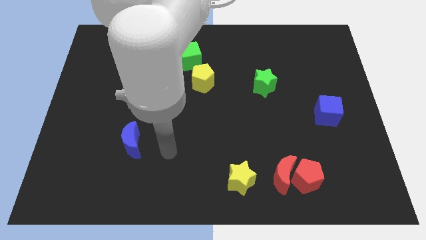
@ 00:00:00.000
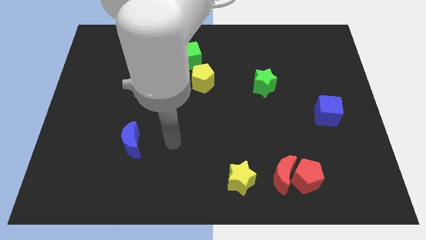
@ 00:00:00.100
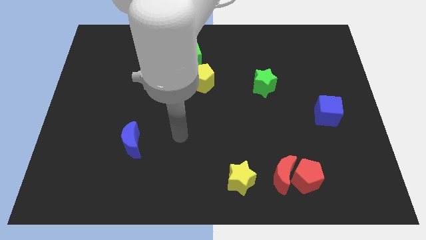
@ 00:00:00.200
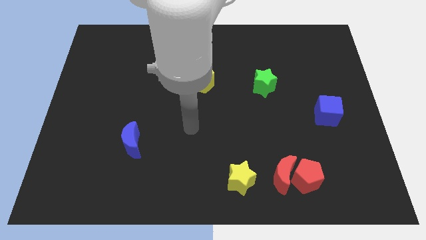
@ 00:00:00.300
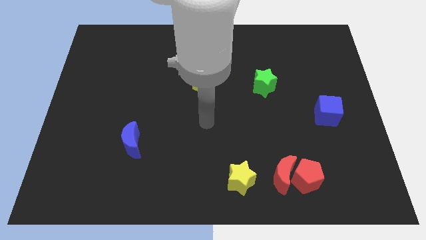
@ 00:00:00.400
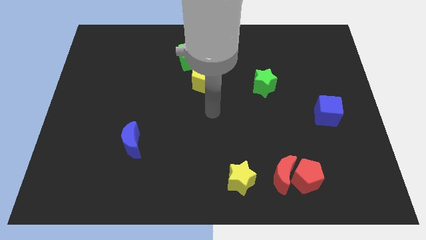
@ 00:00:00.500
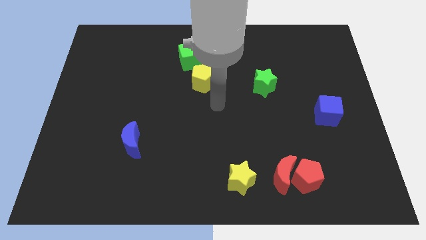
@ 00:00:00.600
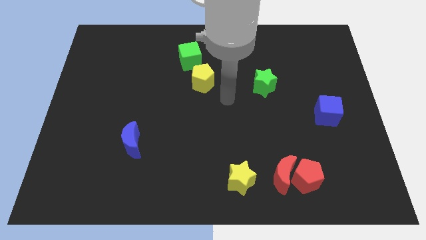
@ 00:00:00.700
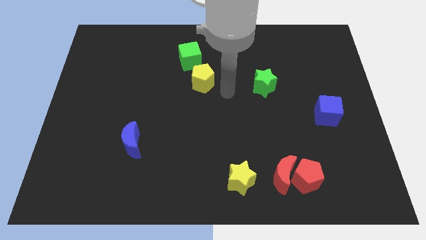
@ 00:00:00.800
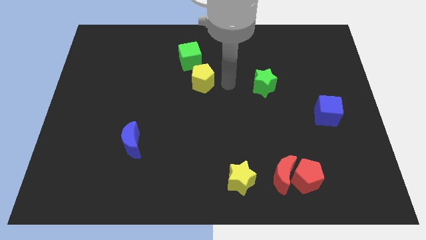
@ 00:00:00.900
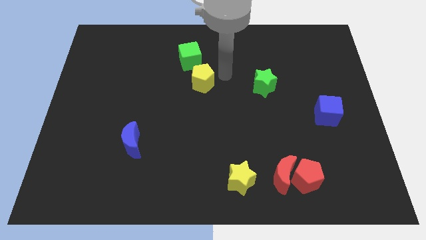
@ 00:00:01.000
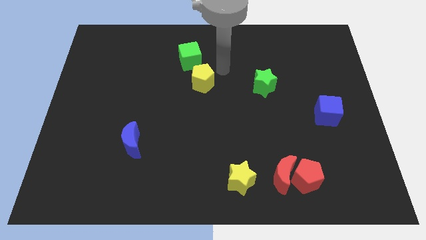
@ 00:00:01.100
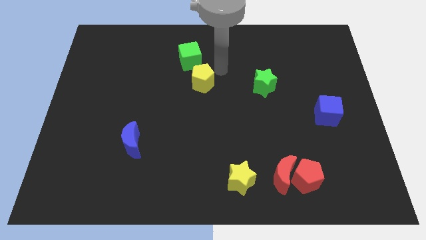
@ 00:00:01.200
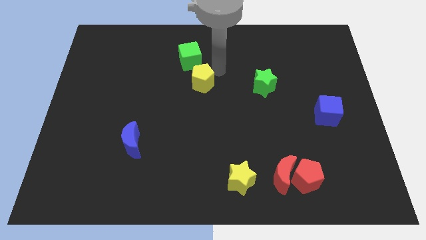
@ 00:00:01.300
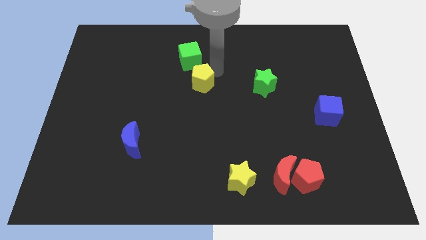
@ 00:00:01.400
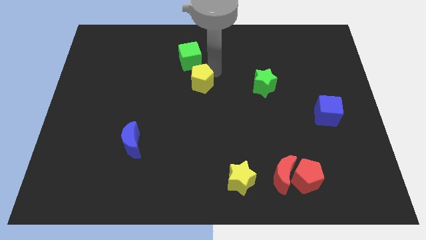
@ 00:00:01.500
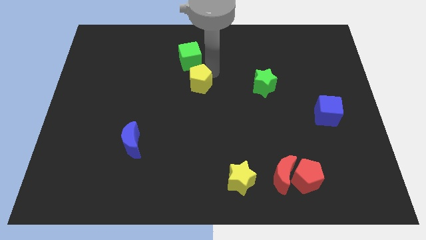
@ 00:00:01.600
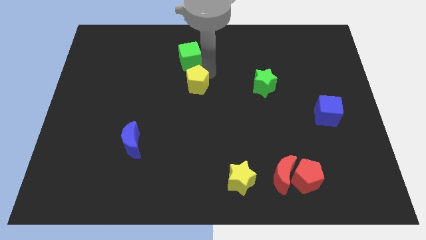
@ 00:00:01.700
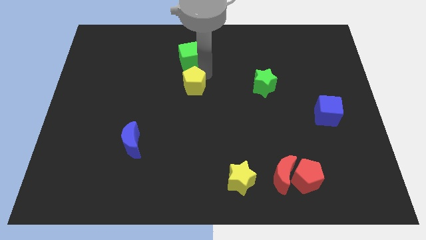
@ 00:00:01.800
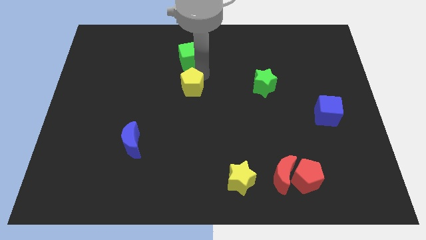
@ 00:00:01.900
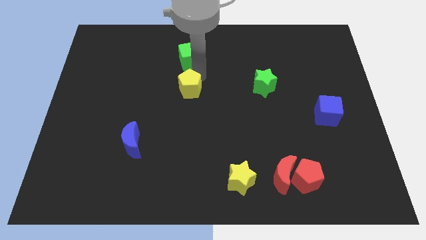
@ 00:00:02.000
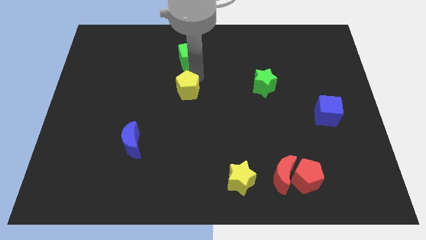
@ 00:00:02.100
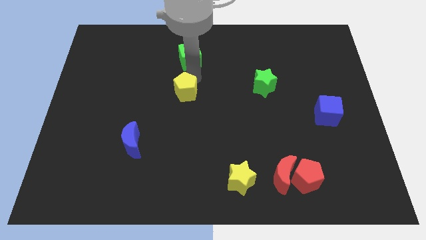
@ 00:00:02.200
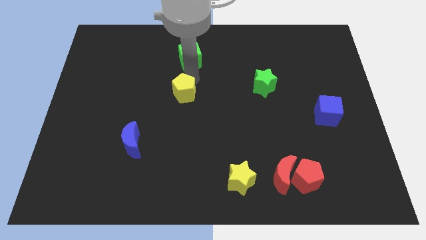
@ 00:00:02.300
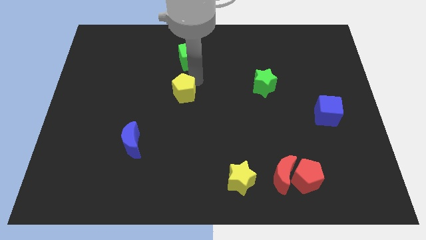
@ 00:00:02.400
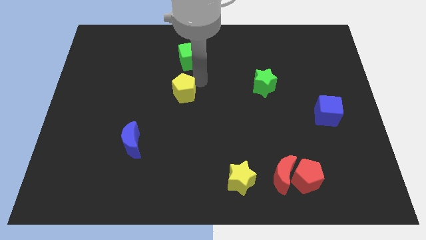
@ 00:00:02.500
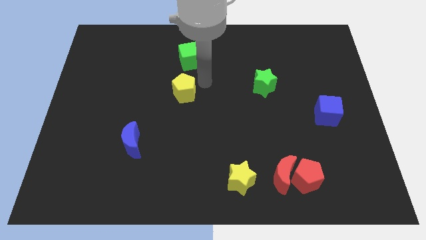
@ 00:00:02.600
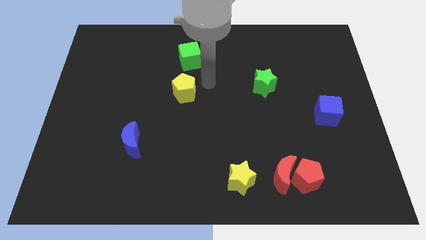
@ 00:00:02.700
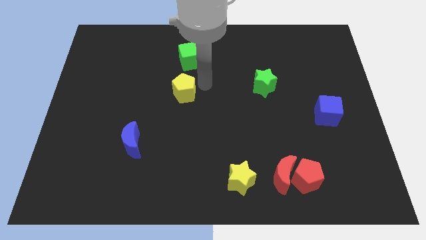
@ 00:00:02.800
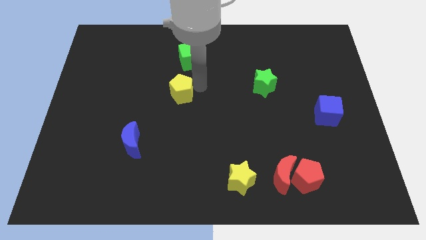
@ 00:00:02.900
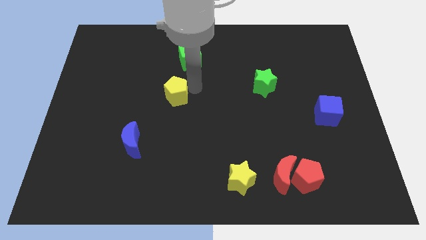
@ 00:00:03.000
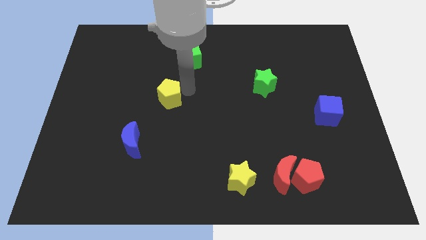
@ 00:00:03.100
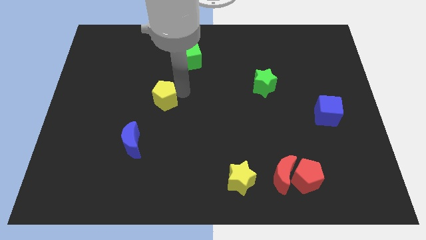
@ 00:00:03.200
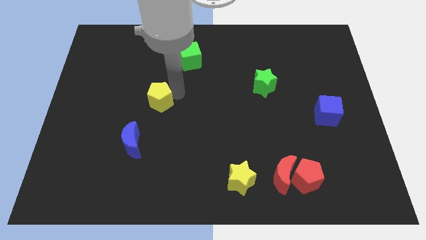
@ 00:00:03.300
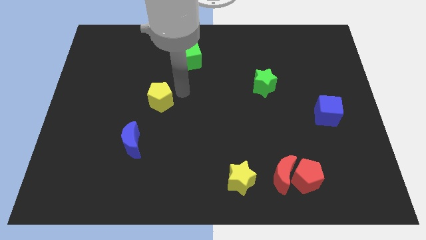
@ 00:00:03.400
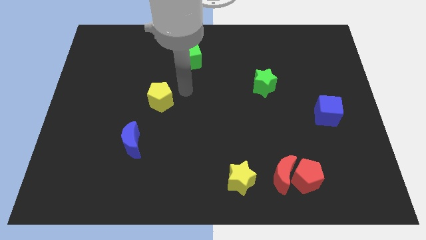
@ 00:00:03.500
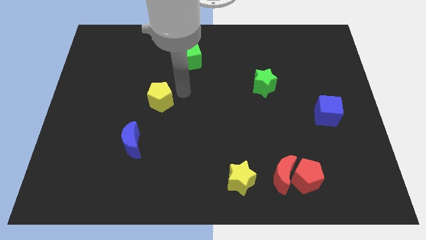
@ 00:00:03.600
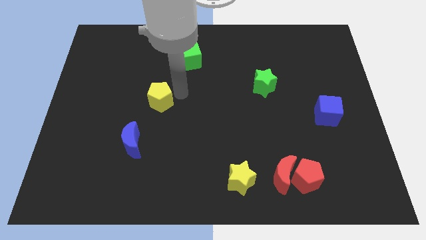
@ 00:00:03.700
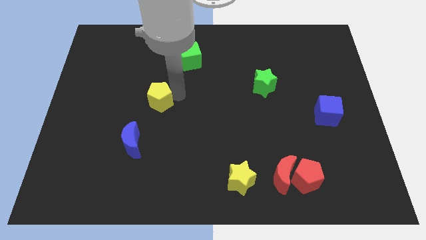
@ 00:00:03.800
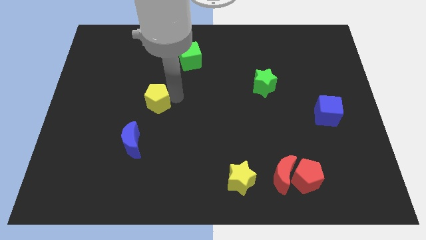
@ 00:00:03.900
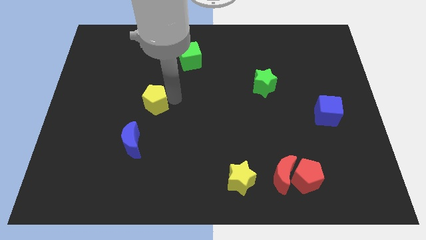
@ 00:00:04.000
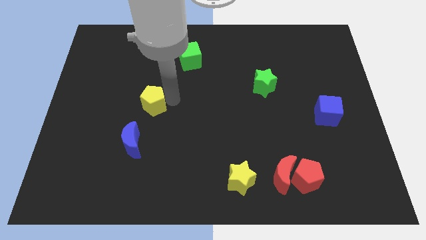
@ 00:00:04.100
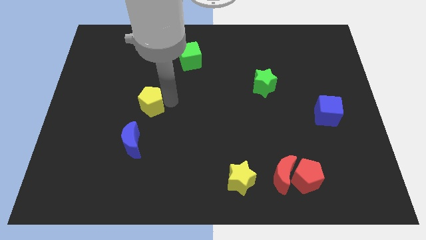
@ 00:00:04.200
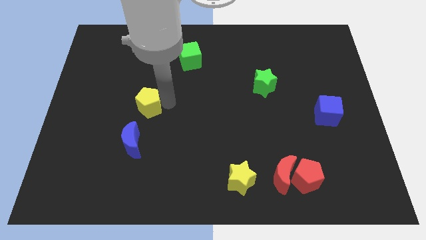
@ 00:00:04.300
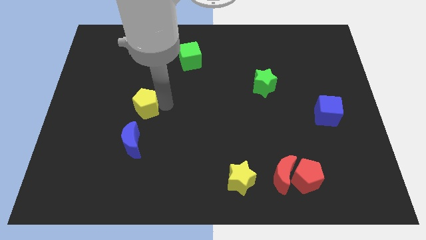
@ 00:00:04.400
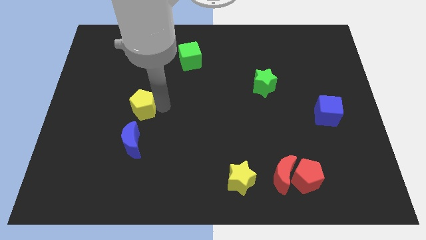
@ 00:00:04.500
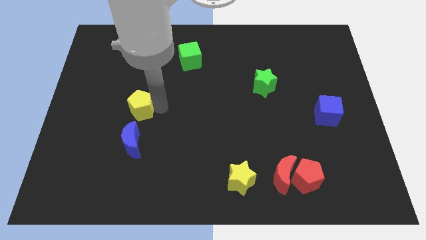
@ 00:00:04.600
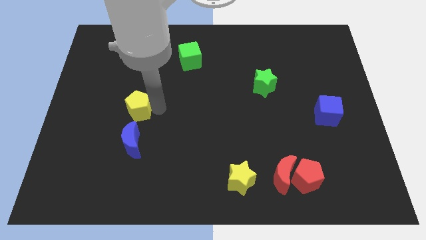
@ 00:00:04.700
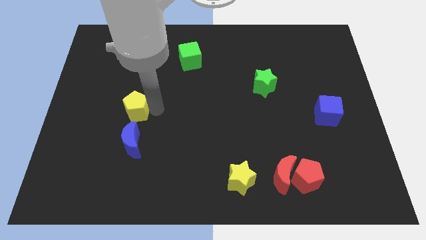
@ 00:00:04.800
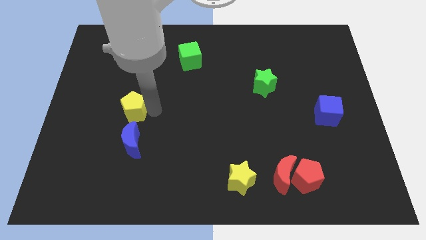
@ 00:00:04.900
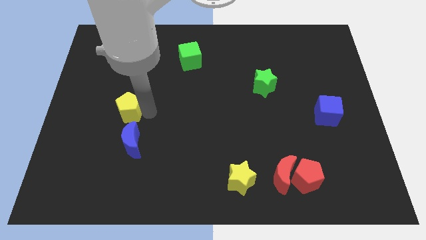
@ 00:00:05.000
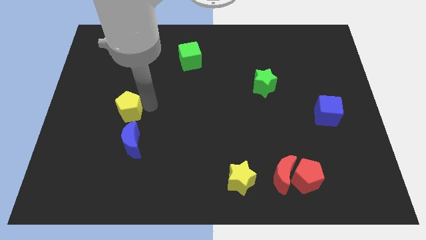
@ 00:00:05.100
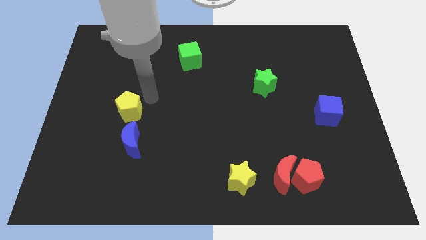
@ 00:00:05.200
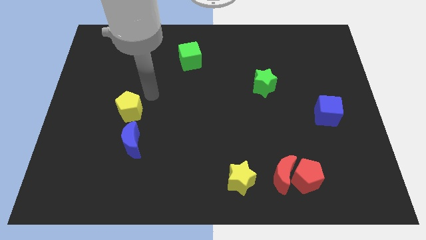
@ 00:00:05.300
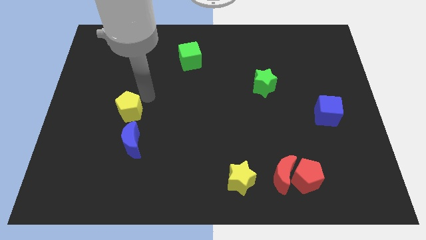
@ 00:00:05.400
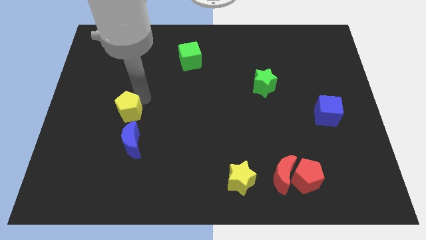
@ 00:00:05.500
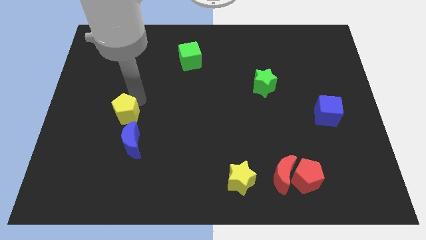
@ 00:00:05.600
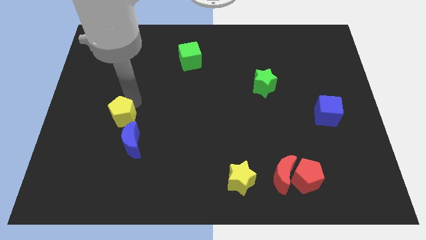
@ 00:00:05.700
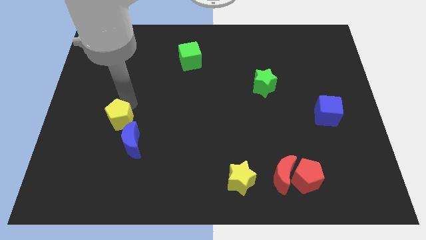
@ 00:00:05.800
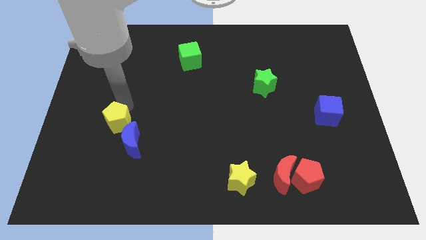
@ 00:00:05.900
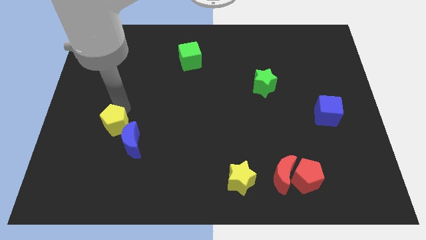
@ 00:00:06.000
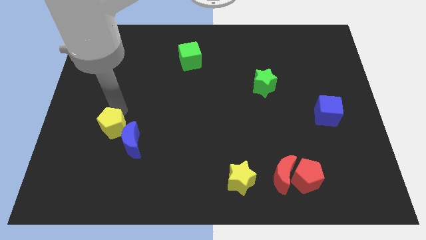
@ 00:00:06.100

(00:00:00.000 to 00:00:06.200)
slide the yellow pentagon just left of the blue moon

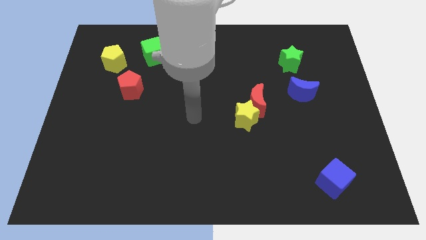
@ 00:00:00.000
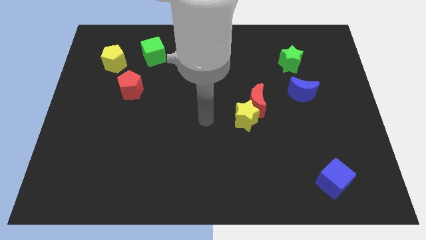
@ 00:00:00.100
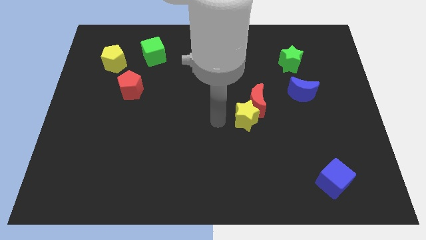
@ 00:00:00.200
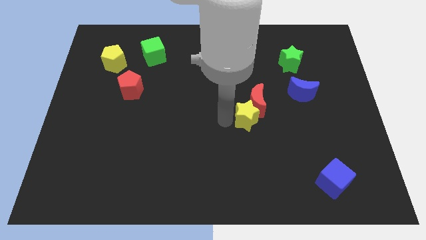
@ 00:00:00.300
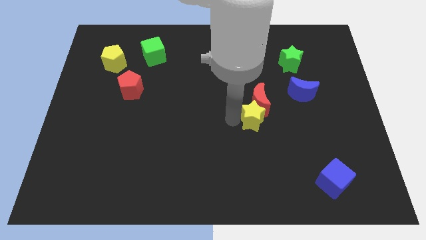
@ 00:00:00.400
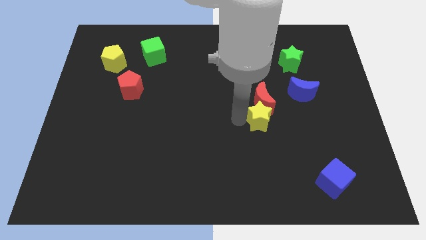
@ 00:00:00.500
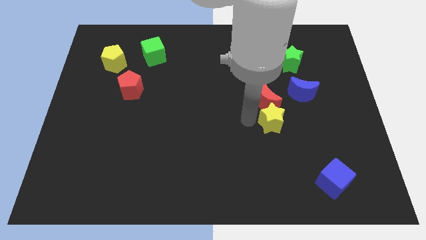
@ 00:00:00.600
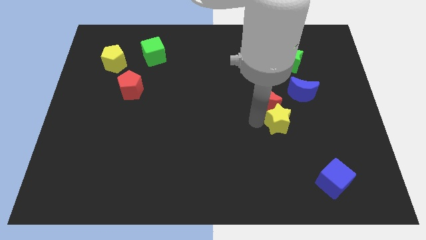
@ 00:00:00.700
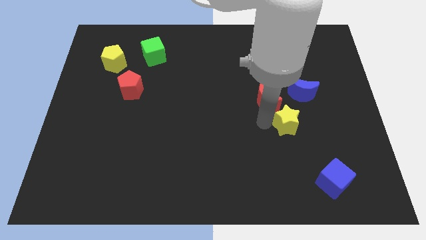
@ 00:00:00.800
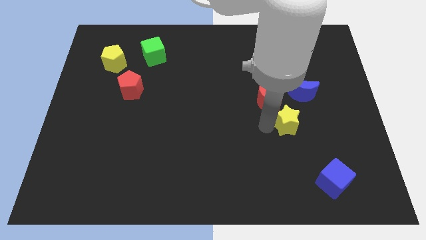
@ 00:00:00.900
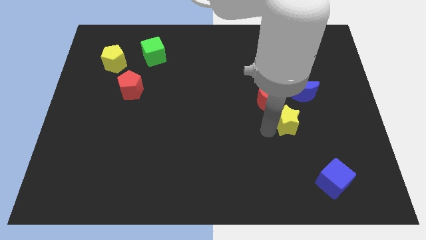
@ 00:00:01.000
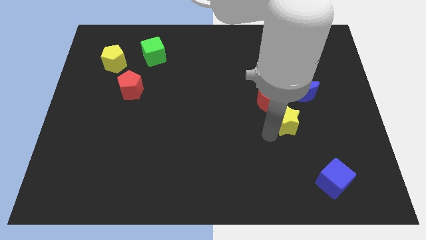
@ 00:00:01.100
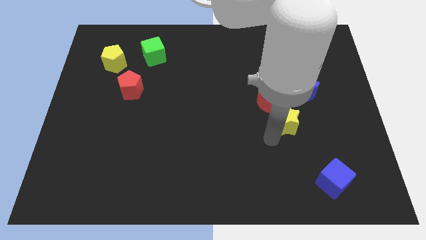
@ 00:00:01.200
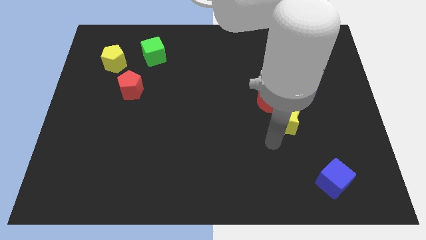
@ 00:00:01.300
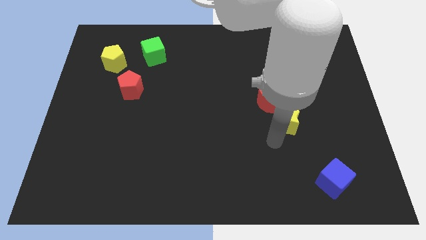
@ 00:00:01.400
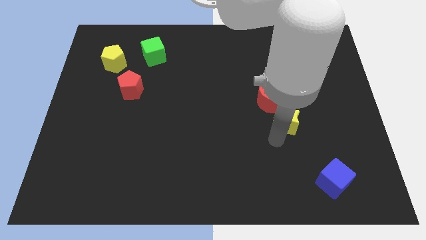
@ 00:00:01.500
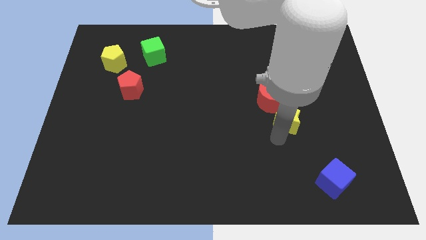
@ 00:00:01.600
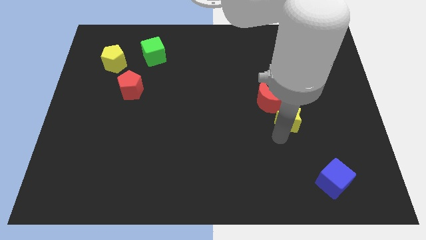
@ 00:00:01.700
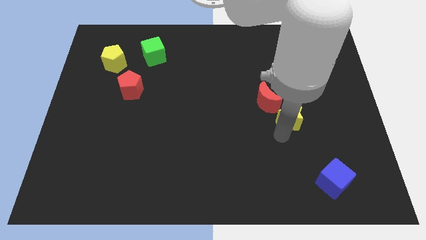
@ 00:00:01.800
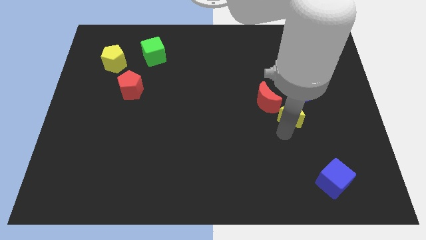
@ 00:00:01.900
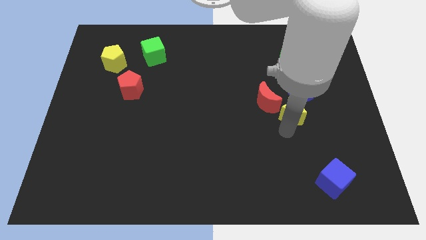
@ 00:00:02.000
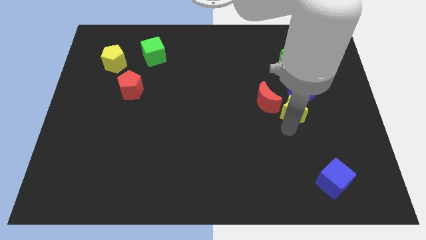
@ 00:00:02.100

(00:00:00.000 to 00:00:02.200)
push the yellow star below the green star
